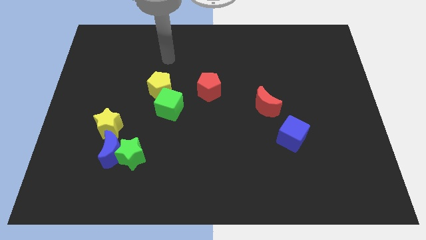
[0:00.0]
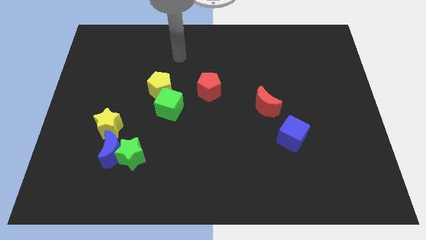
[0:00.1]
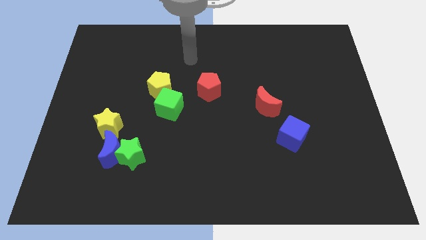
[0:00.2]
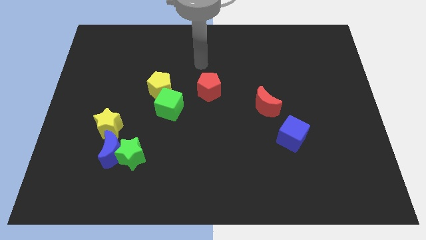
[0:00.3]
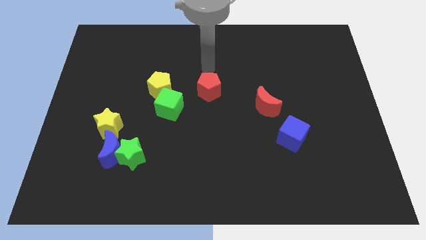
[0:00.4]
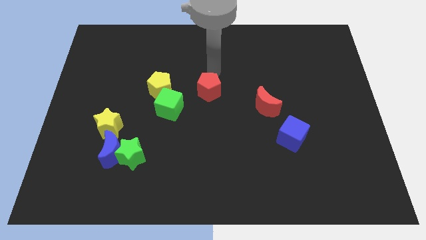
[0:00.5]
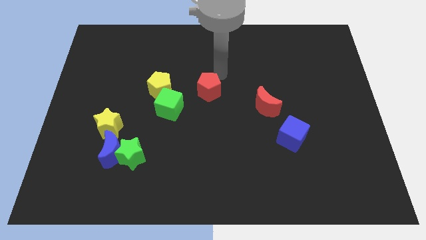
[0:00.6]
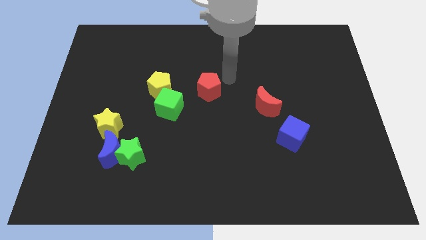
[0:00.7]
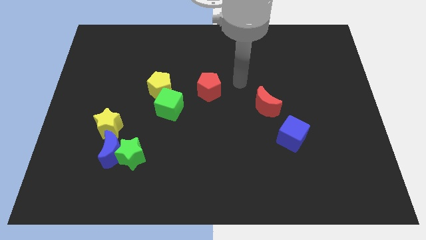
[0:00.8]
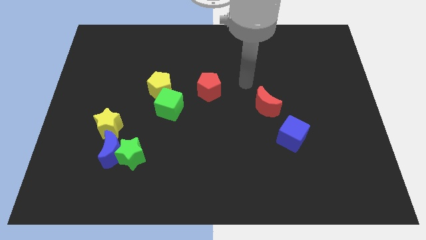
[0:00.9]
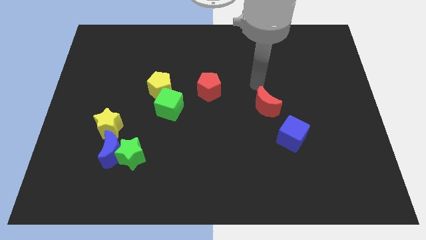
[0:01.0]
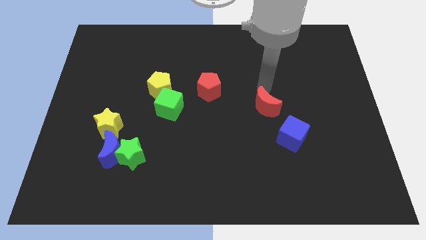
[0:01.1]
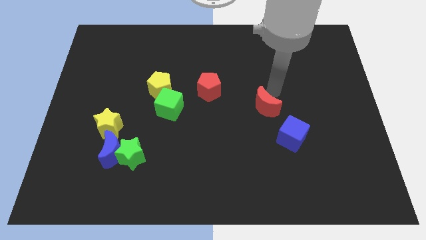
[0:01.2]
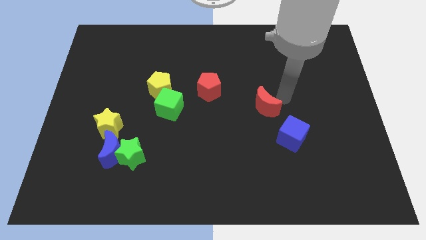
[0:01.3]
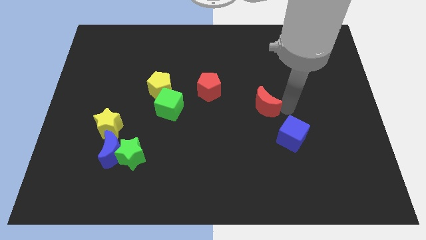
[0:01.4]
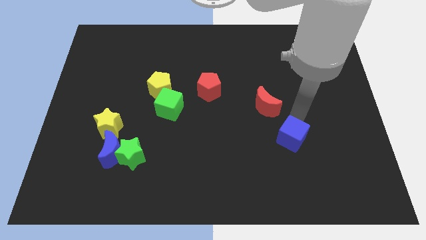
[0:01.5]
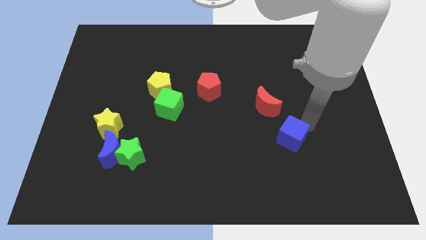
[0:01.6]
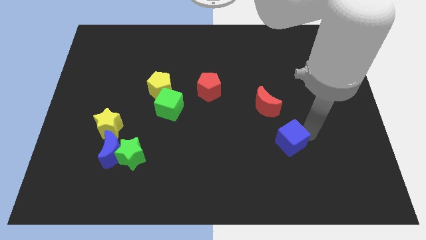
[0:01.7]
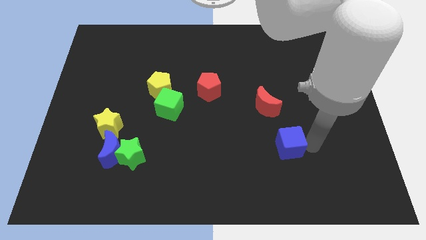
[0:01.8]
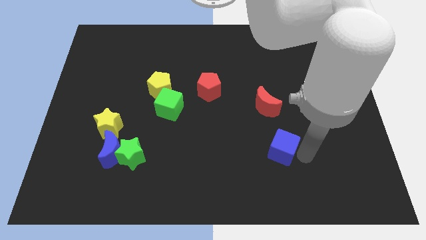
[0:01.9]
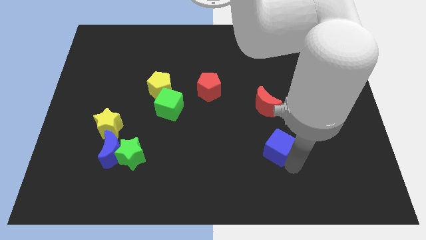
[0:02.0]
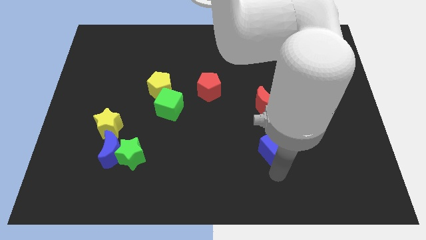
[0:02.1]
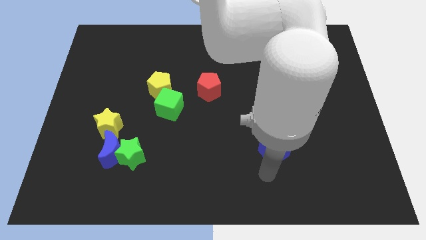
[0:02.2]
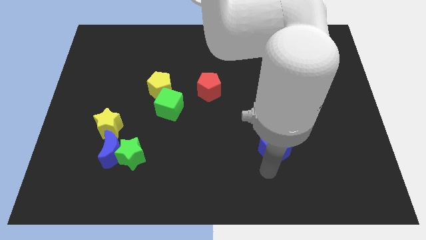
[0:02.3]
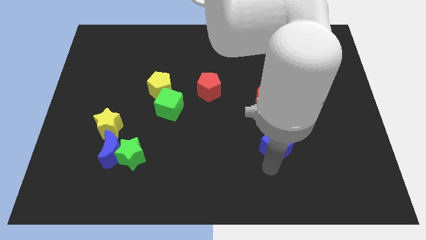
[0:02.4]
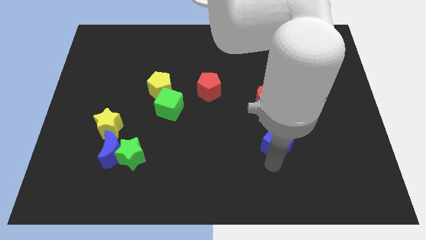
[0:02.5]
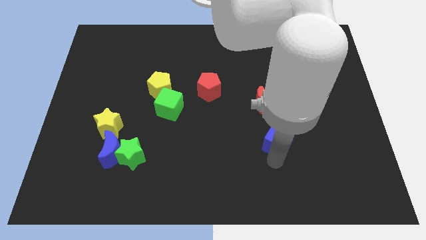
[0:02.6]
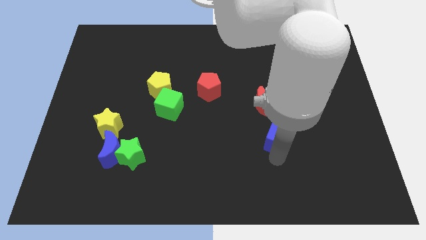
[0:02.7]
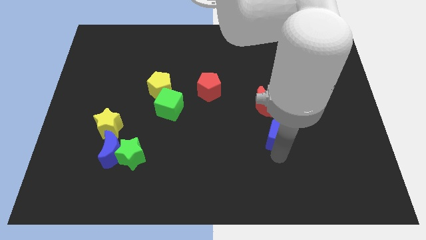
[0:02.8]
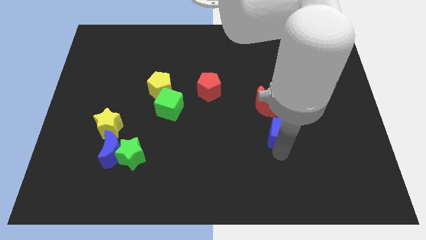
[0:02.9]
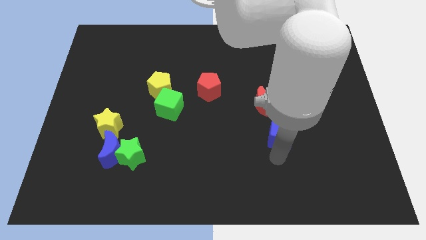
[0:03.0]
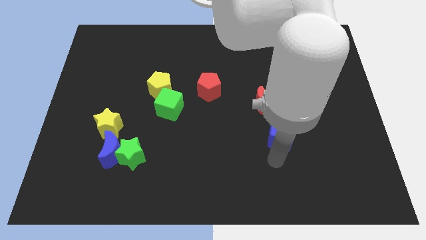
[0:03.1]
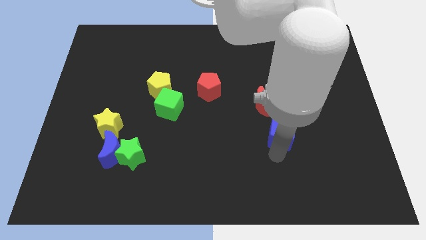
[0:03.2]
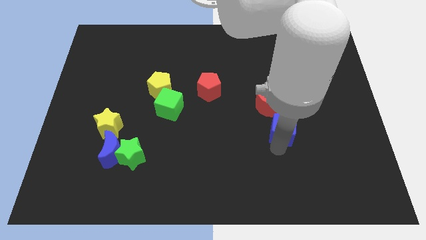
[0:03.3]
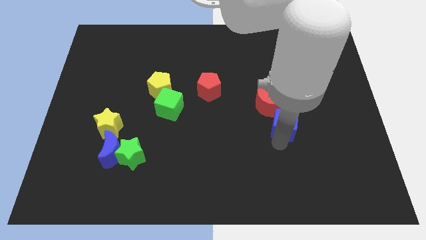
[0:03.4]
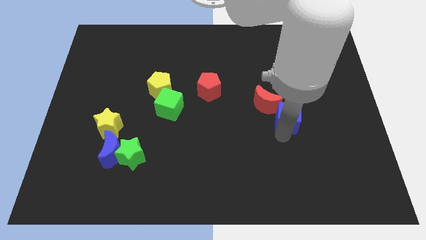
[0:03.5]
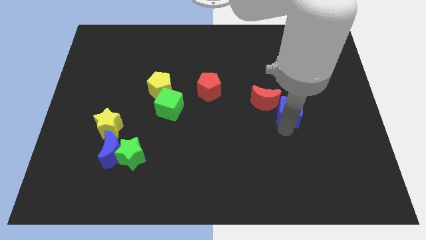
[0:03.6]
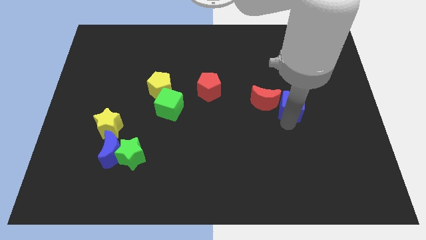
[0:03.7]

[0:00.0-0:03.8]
slightly slide the blue cube up

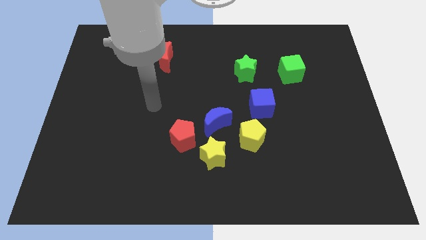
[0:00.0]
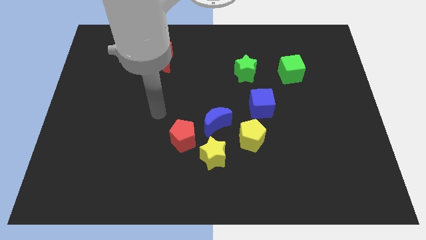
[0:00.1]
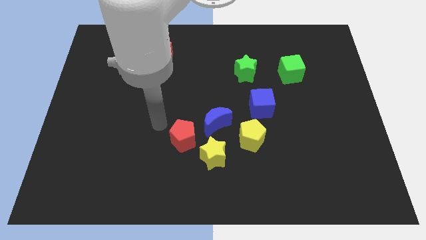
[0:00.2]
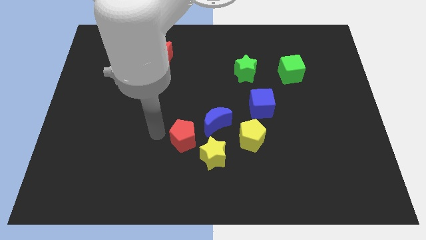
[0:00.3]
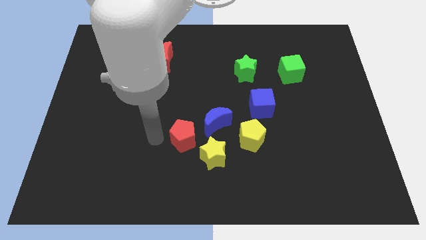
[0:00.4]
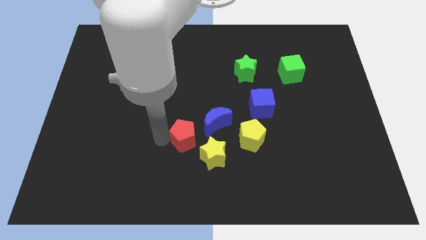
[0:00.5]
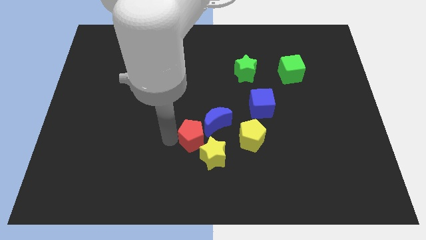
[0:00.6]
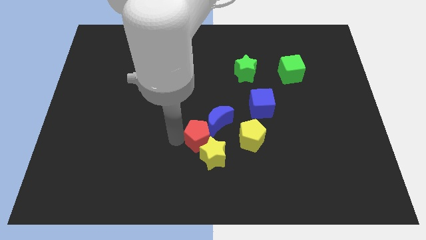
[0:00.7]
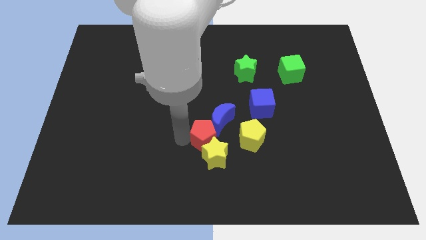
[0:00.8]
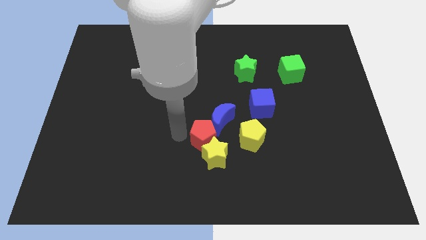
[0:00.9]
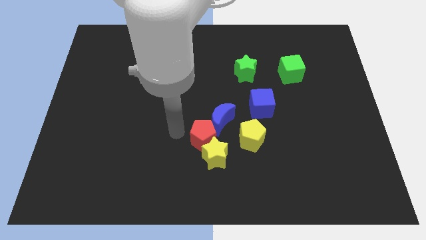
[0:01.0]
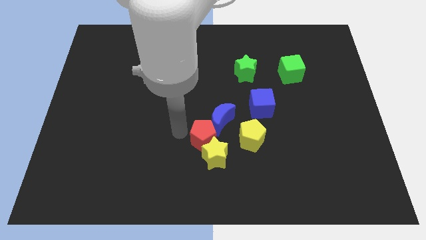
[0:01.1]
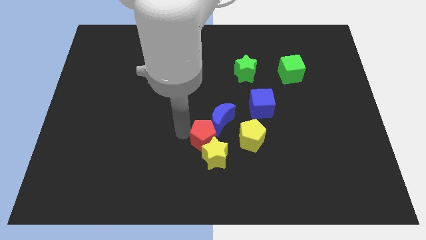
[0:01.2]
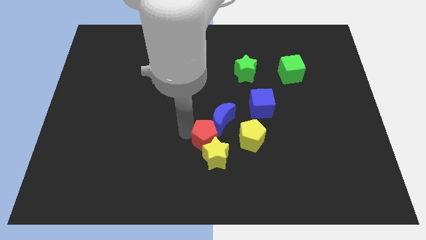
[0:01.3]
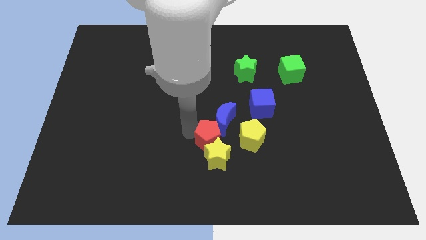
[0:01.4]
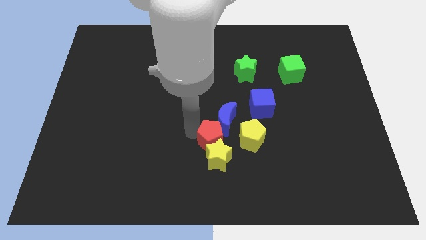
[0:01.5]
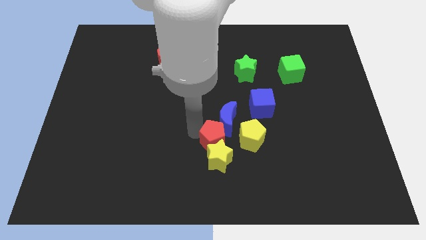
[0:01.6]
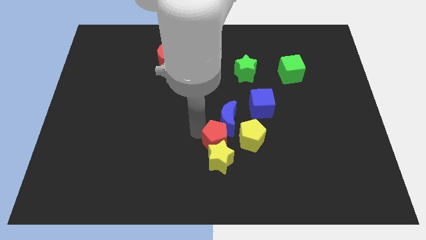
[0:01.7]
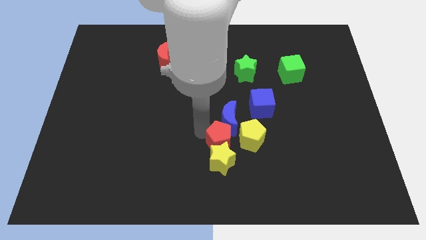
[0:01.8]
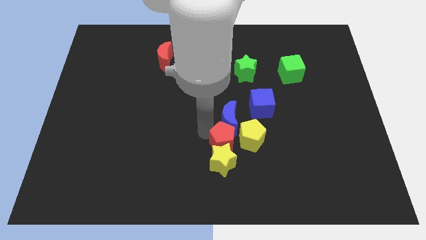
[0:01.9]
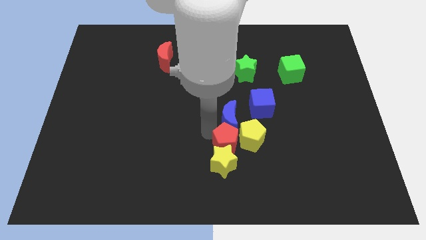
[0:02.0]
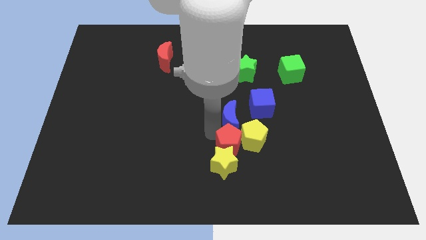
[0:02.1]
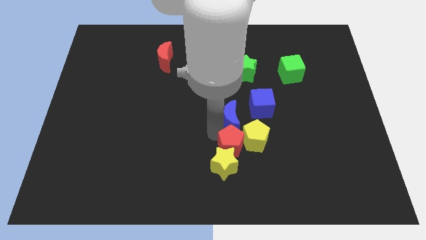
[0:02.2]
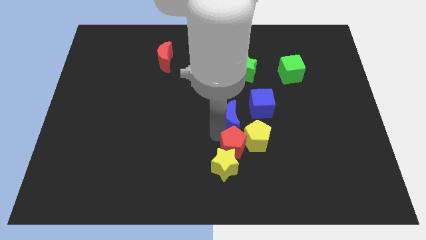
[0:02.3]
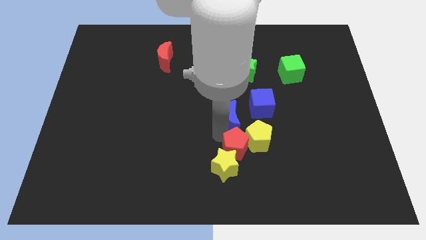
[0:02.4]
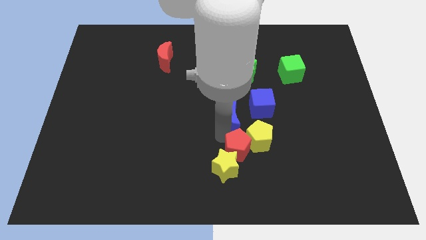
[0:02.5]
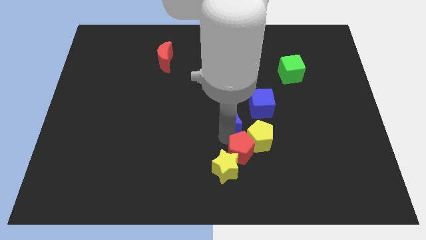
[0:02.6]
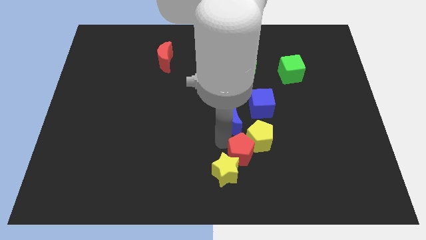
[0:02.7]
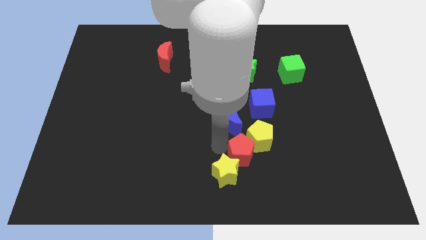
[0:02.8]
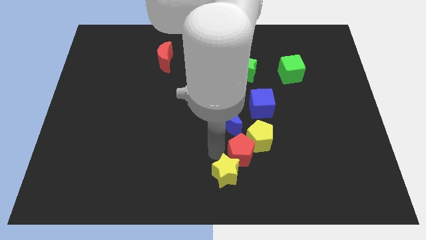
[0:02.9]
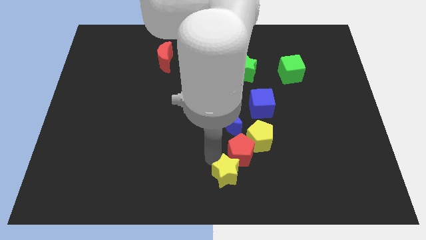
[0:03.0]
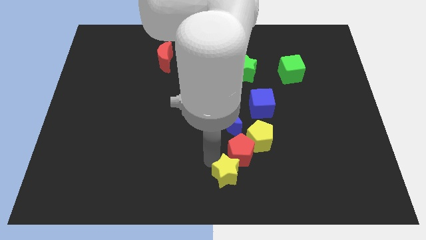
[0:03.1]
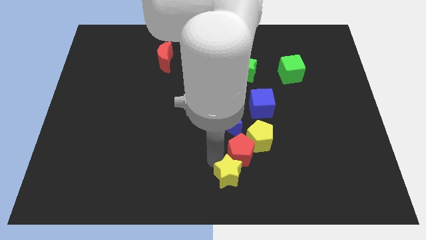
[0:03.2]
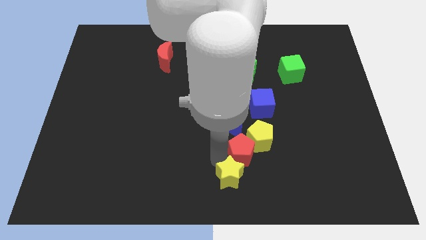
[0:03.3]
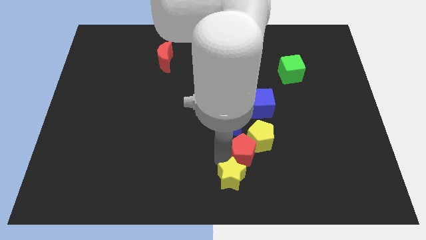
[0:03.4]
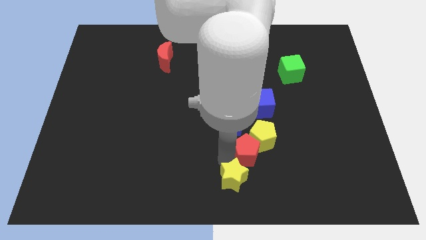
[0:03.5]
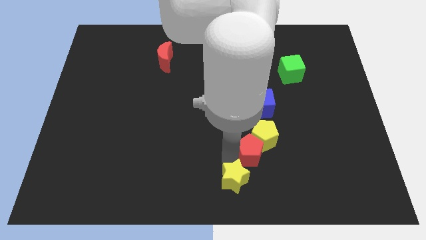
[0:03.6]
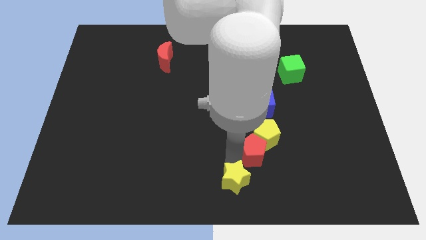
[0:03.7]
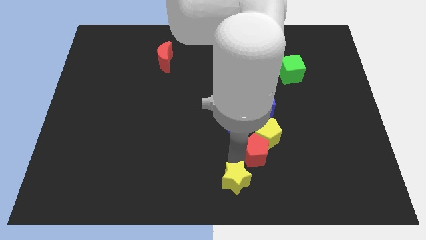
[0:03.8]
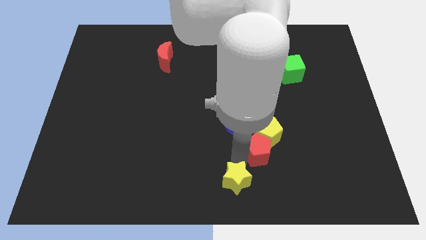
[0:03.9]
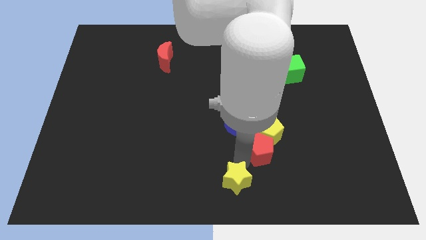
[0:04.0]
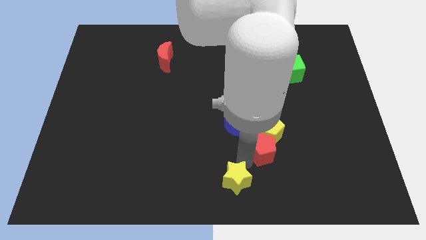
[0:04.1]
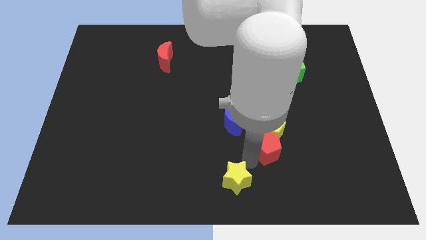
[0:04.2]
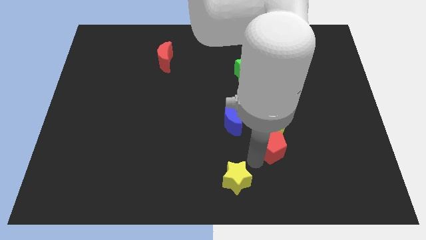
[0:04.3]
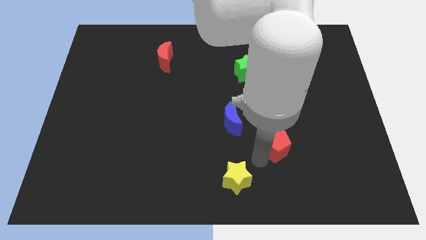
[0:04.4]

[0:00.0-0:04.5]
move the red pentagon to the right
